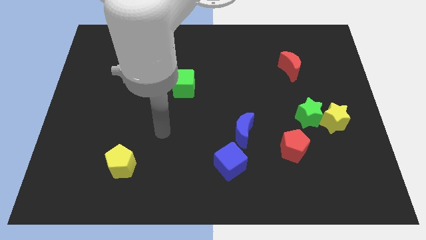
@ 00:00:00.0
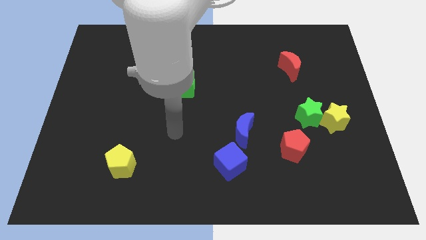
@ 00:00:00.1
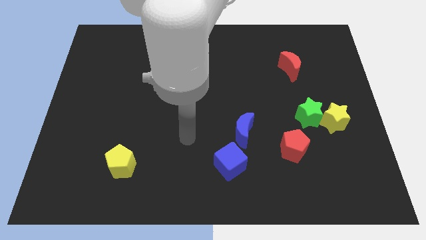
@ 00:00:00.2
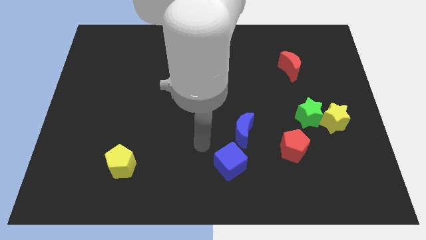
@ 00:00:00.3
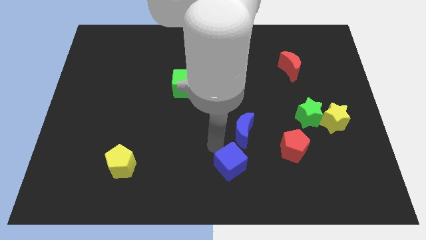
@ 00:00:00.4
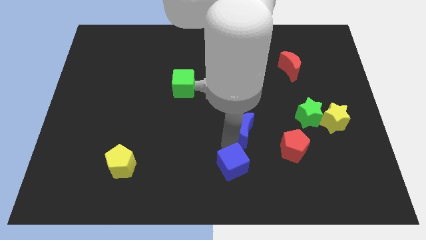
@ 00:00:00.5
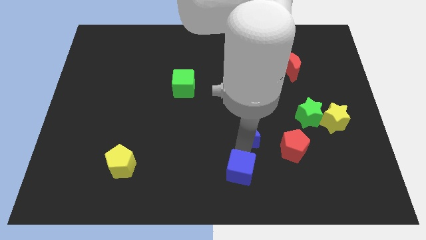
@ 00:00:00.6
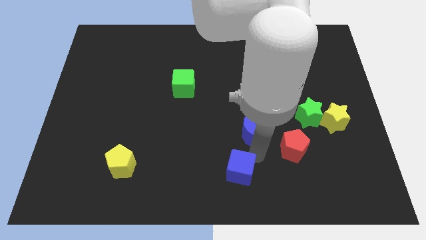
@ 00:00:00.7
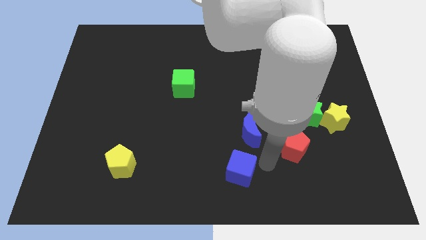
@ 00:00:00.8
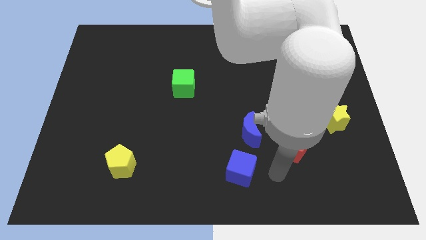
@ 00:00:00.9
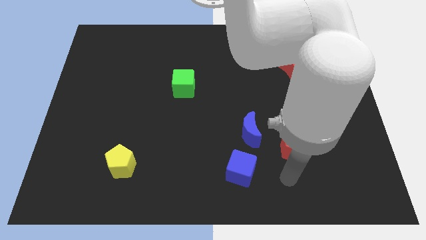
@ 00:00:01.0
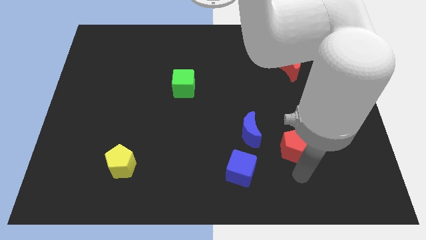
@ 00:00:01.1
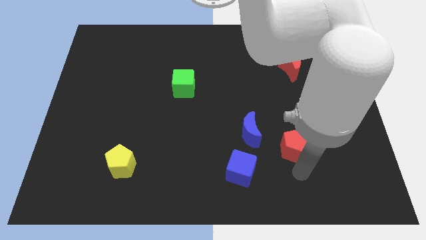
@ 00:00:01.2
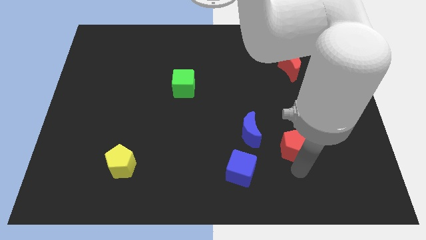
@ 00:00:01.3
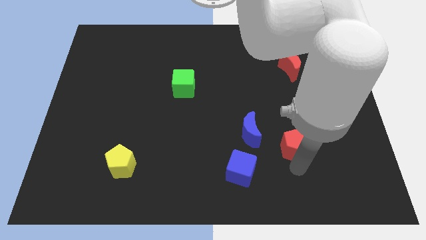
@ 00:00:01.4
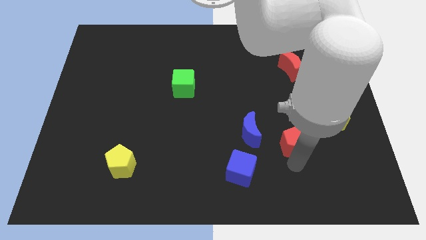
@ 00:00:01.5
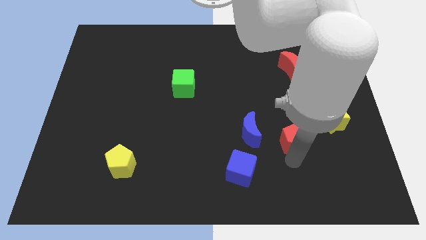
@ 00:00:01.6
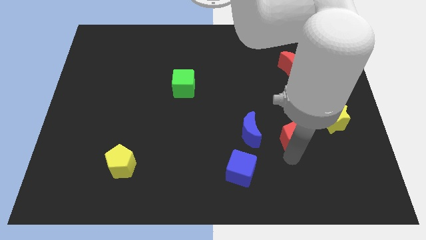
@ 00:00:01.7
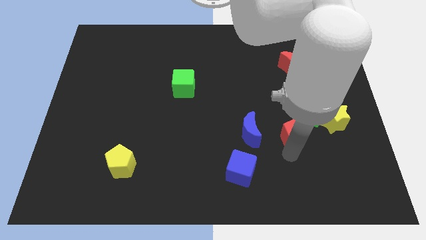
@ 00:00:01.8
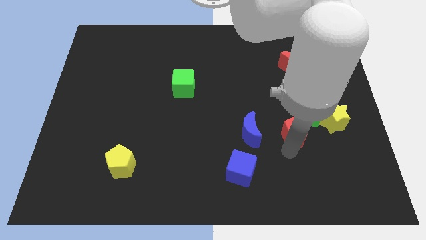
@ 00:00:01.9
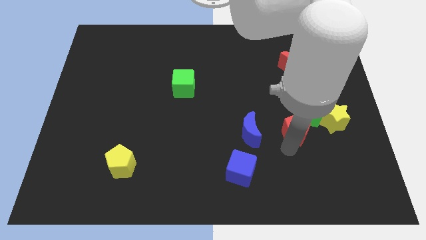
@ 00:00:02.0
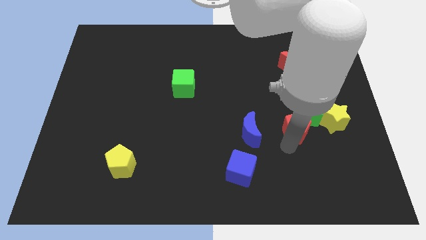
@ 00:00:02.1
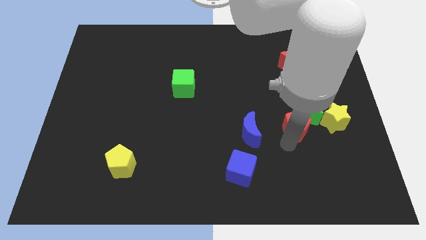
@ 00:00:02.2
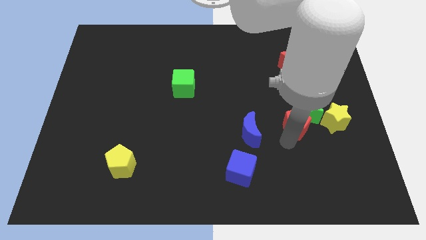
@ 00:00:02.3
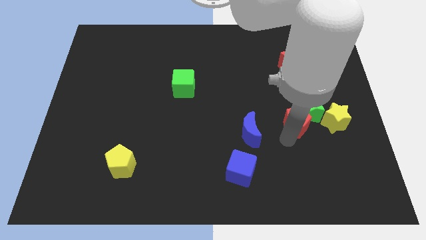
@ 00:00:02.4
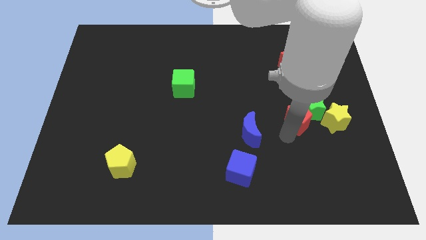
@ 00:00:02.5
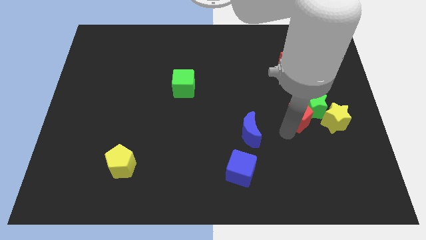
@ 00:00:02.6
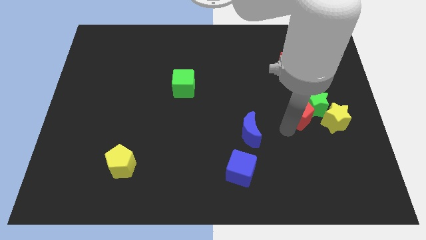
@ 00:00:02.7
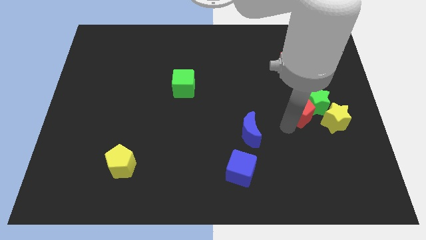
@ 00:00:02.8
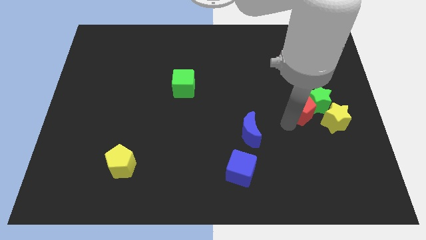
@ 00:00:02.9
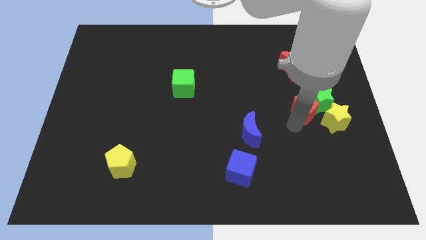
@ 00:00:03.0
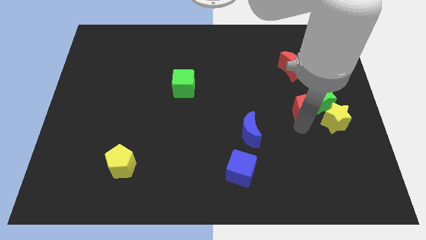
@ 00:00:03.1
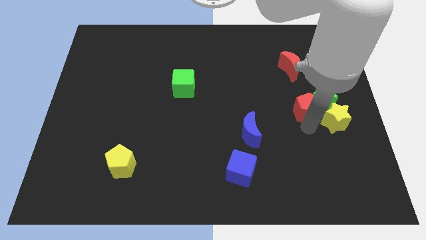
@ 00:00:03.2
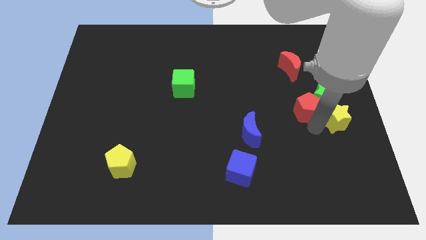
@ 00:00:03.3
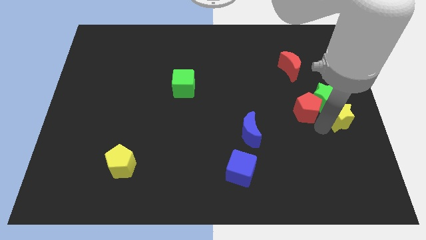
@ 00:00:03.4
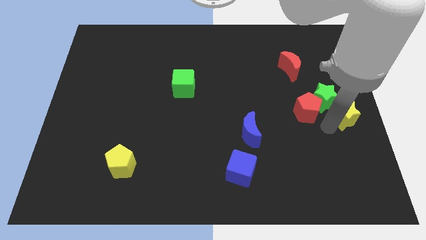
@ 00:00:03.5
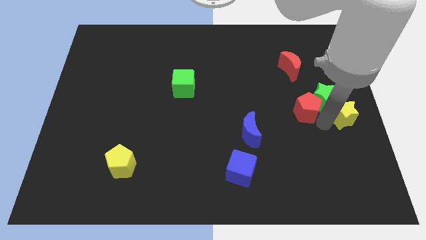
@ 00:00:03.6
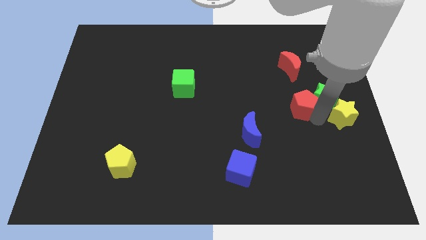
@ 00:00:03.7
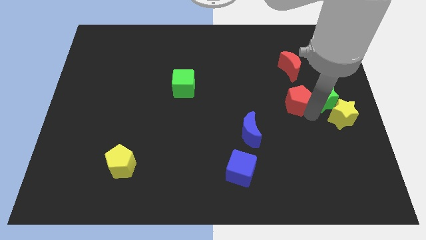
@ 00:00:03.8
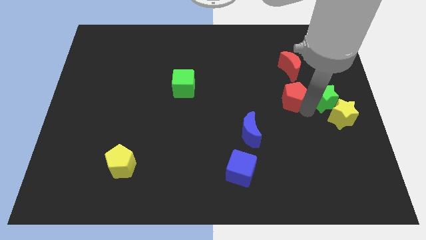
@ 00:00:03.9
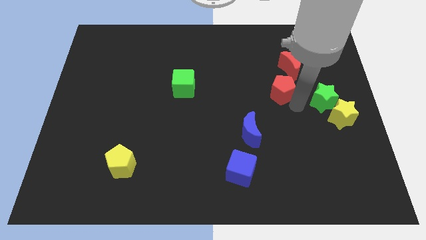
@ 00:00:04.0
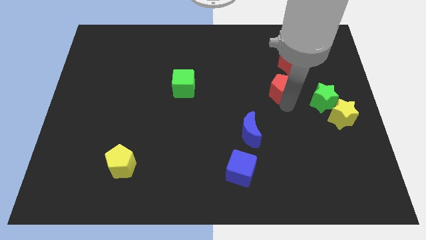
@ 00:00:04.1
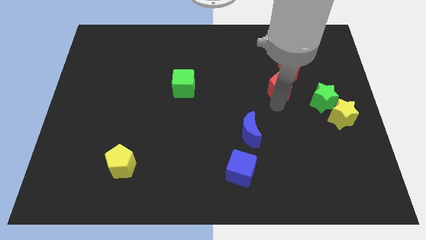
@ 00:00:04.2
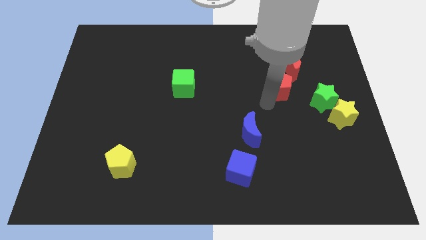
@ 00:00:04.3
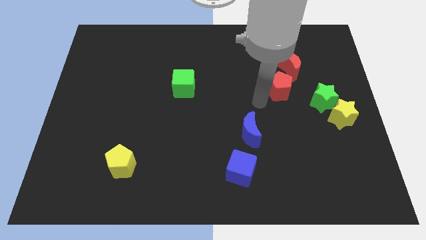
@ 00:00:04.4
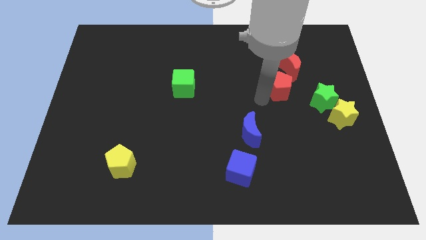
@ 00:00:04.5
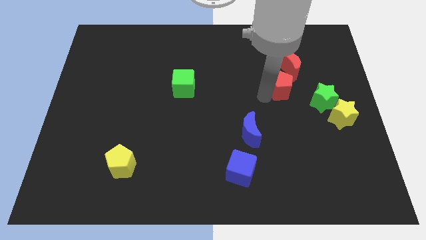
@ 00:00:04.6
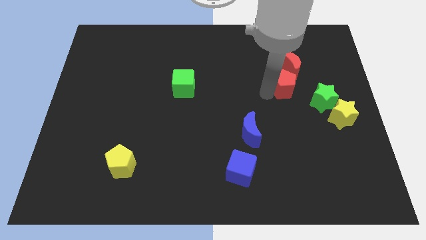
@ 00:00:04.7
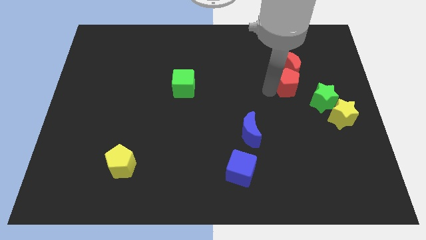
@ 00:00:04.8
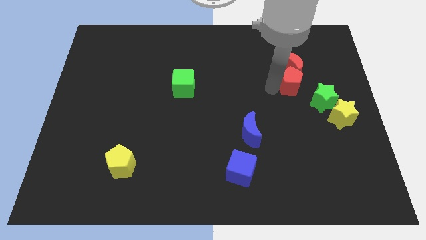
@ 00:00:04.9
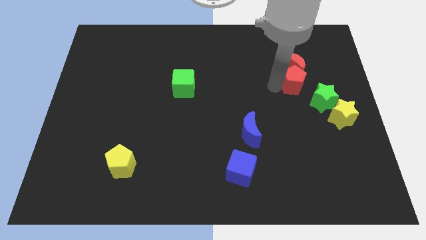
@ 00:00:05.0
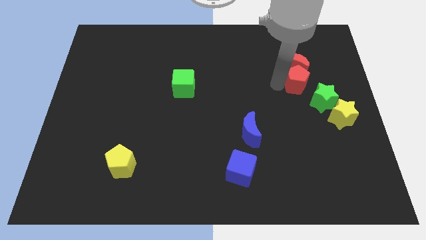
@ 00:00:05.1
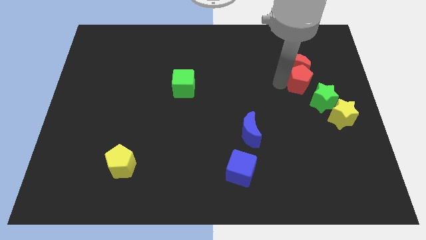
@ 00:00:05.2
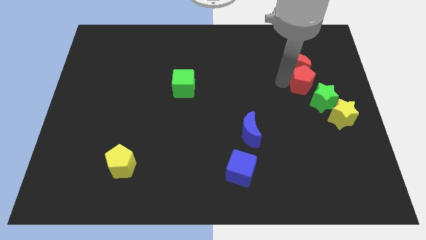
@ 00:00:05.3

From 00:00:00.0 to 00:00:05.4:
push the red pentagon above the green star
